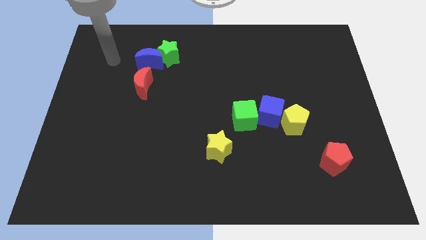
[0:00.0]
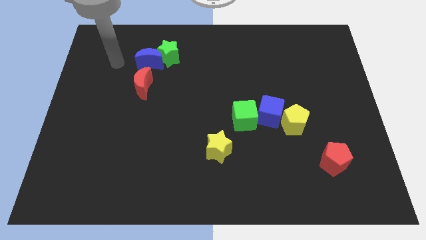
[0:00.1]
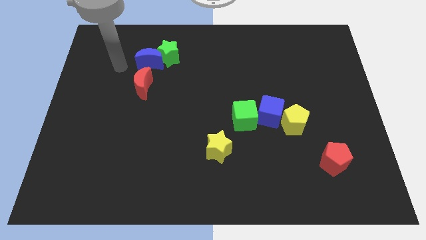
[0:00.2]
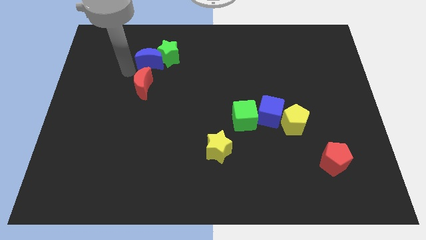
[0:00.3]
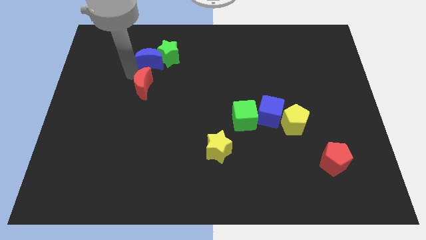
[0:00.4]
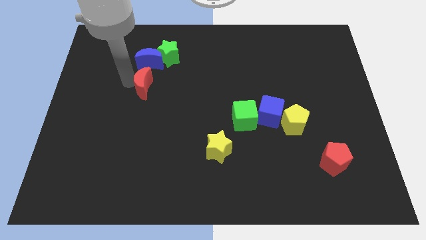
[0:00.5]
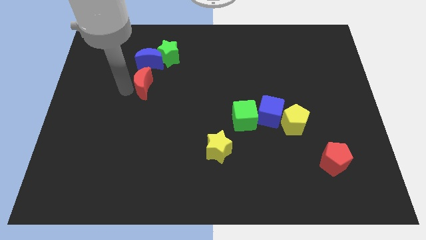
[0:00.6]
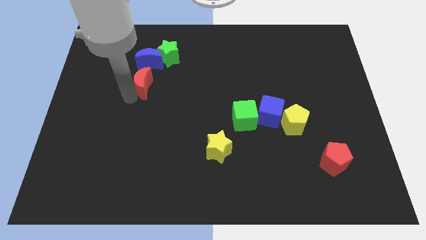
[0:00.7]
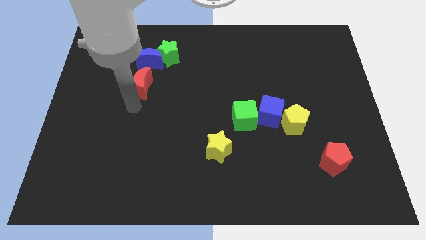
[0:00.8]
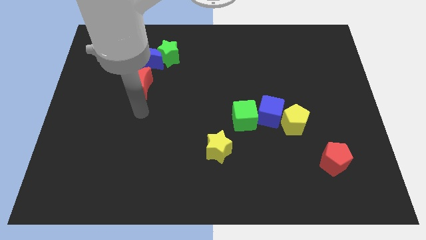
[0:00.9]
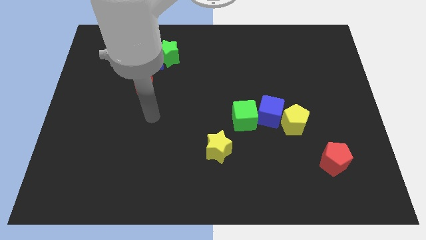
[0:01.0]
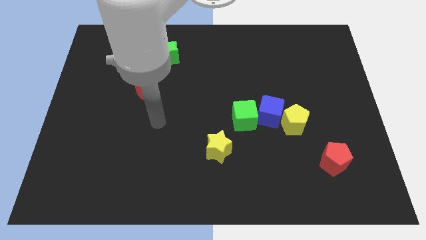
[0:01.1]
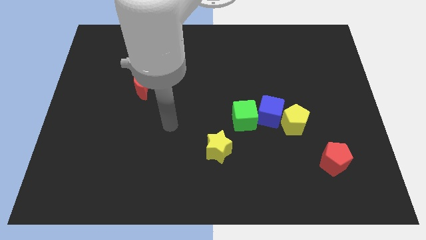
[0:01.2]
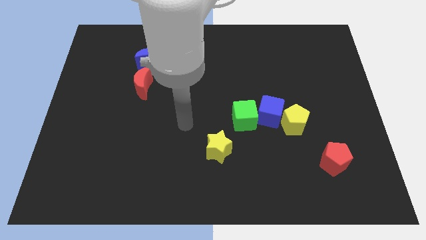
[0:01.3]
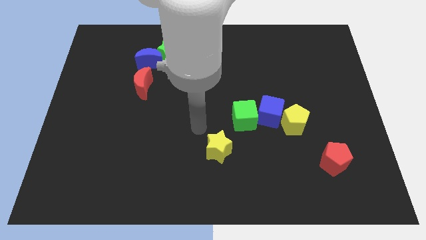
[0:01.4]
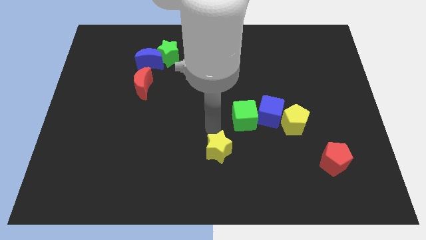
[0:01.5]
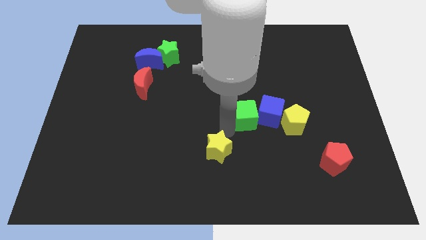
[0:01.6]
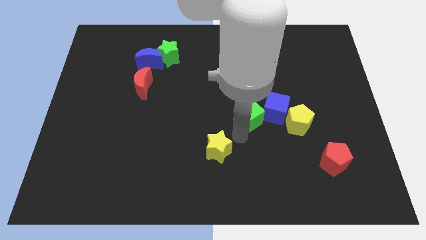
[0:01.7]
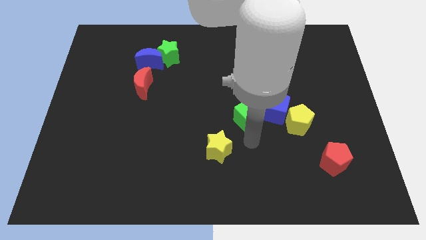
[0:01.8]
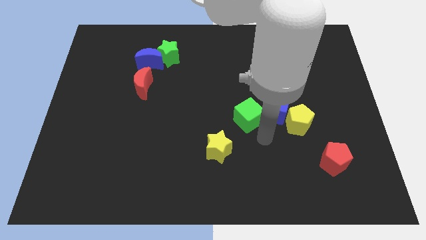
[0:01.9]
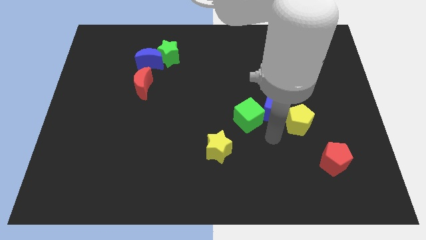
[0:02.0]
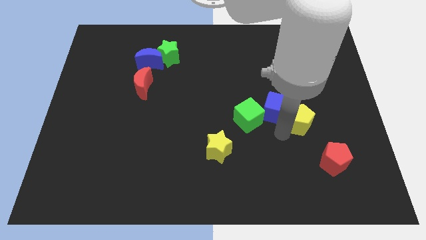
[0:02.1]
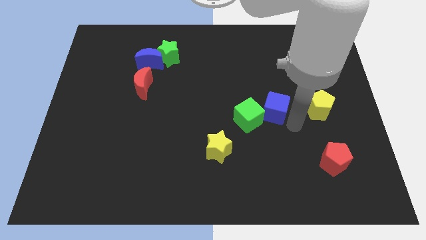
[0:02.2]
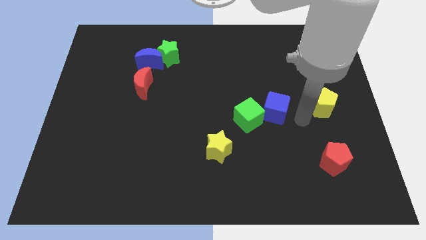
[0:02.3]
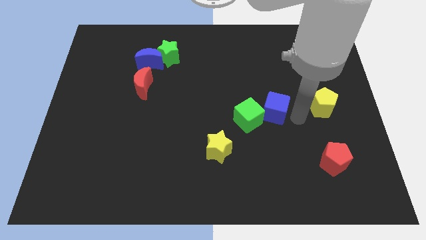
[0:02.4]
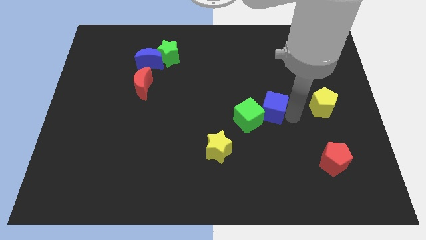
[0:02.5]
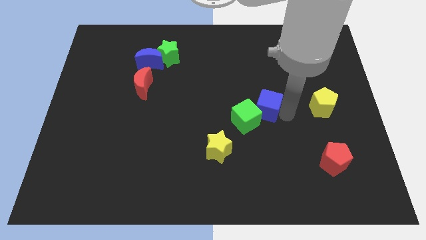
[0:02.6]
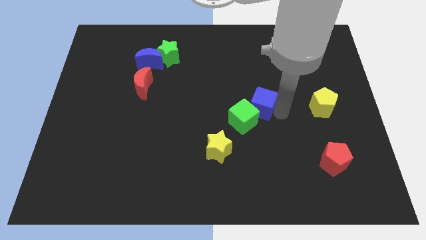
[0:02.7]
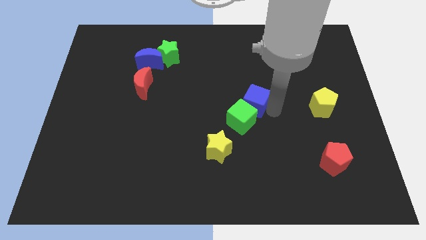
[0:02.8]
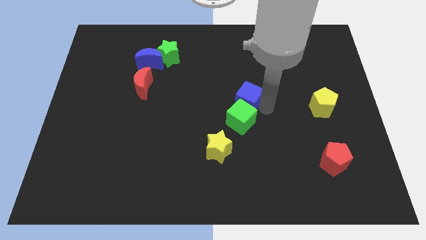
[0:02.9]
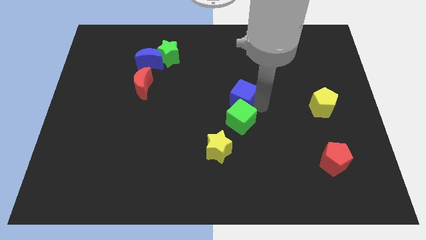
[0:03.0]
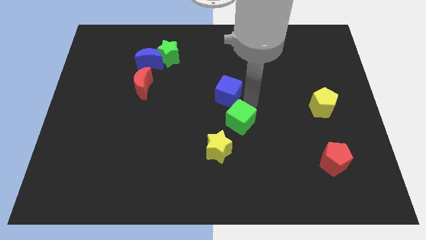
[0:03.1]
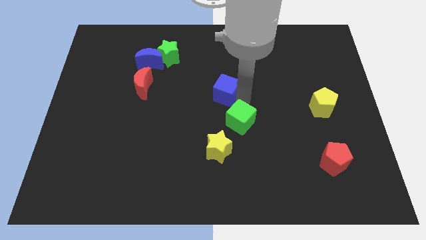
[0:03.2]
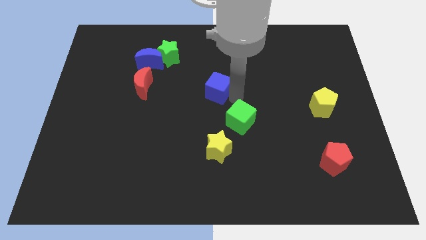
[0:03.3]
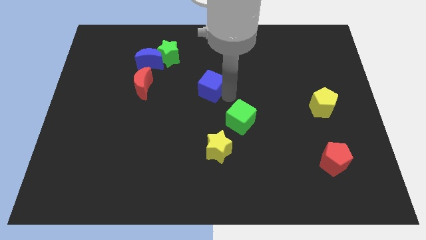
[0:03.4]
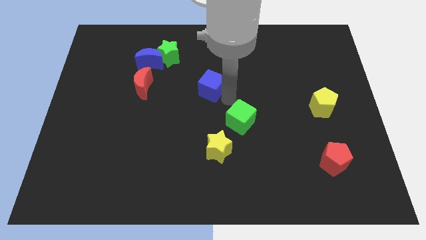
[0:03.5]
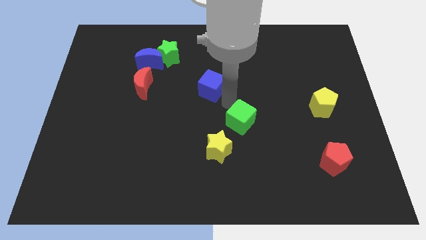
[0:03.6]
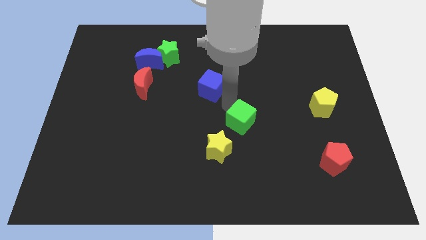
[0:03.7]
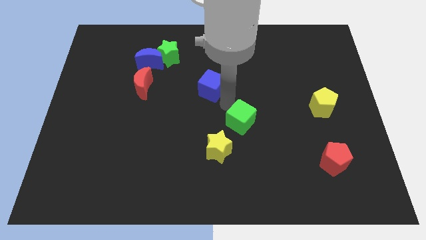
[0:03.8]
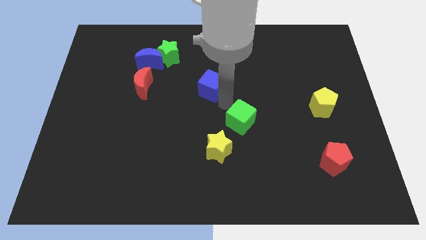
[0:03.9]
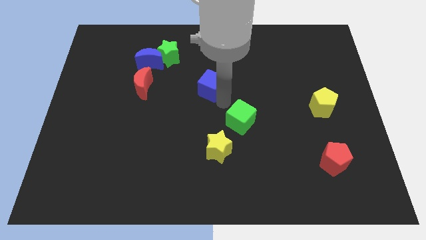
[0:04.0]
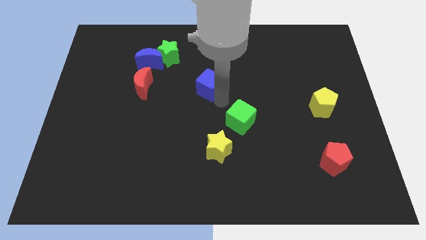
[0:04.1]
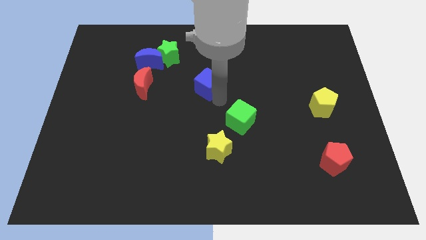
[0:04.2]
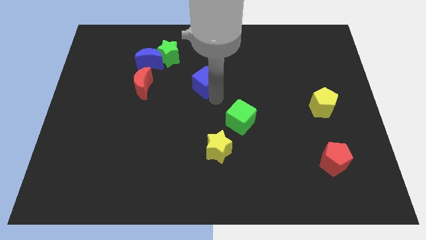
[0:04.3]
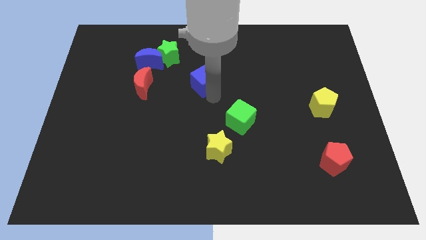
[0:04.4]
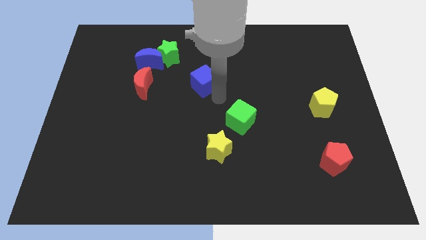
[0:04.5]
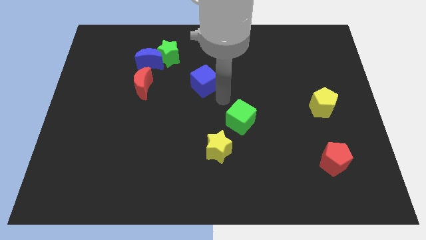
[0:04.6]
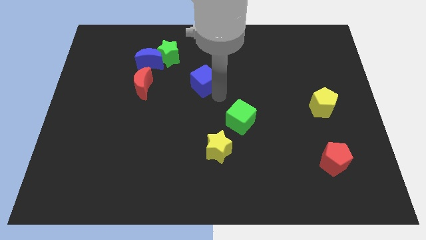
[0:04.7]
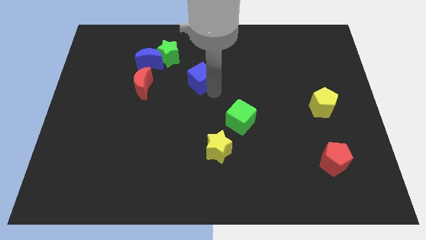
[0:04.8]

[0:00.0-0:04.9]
put the blue cube to the bottom right side of the green star

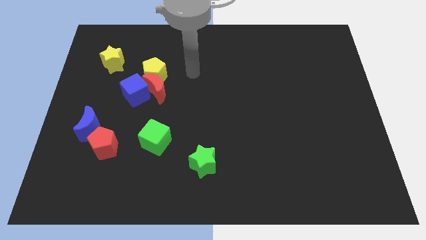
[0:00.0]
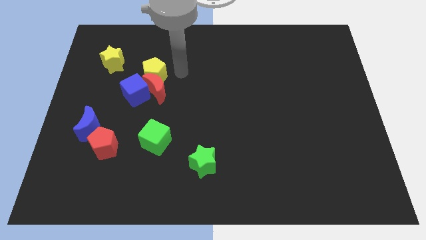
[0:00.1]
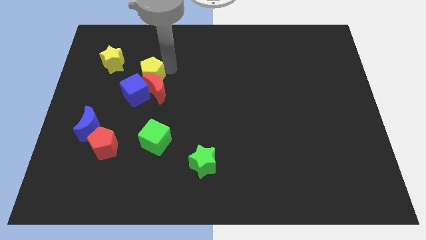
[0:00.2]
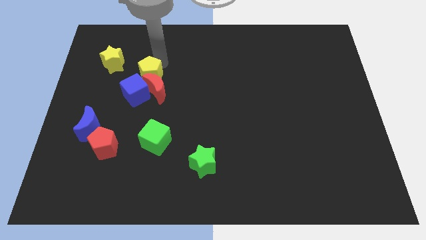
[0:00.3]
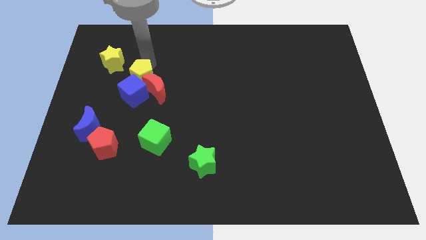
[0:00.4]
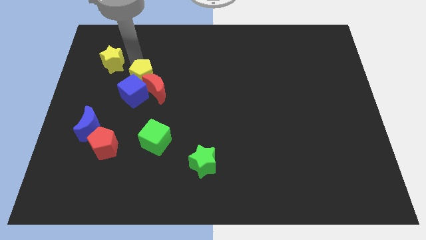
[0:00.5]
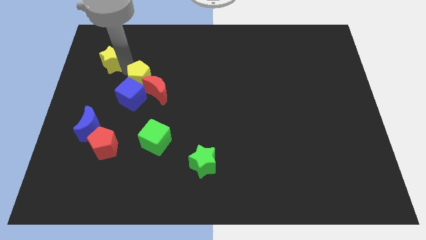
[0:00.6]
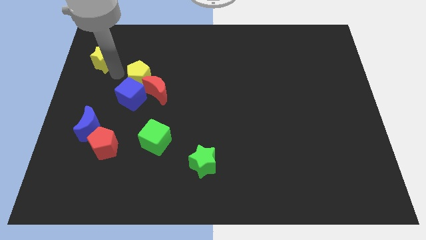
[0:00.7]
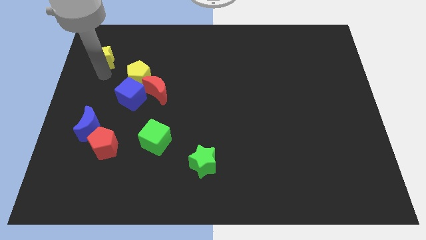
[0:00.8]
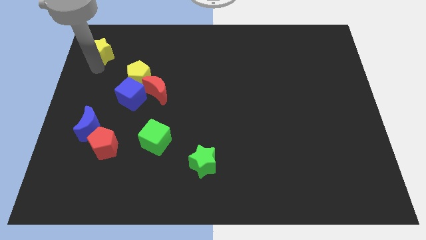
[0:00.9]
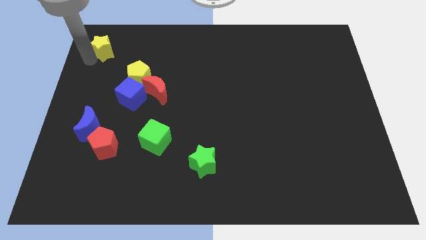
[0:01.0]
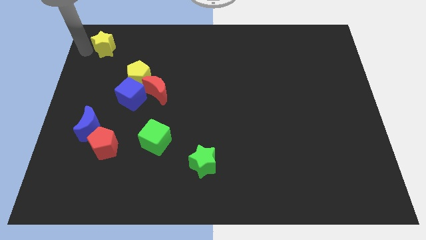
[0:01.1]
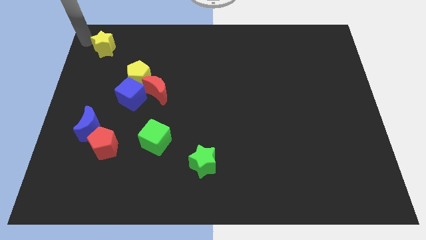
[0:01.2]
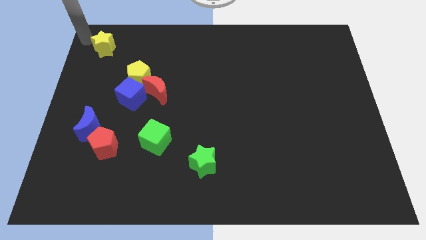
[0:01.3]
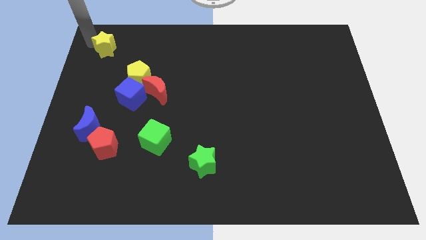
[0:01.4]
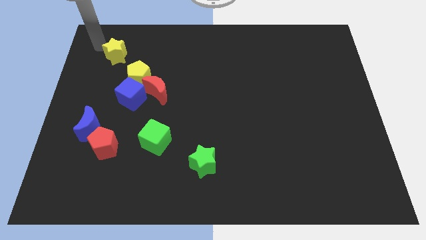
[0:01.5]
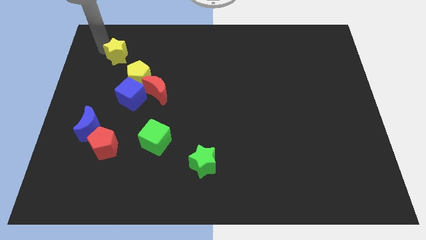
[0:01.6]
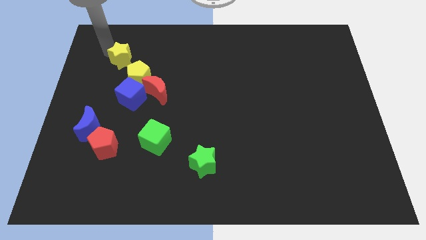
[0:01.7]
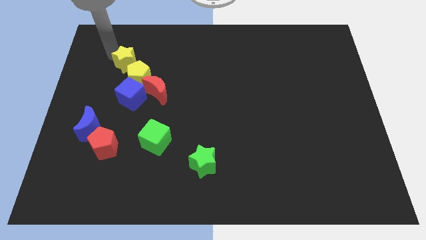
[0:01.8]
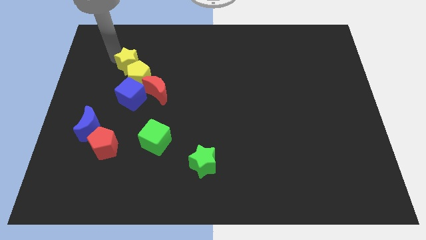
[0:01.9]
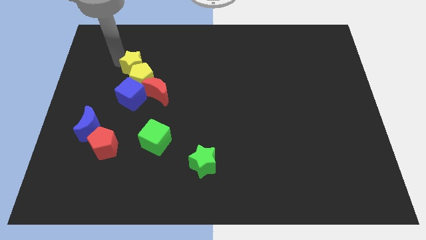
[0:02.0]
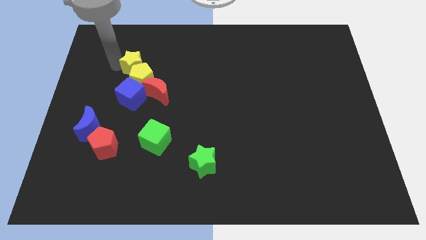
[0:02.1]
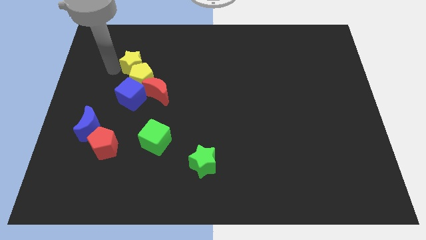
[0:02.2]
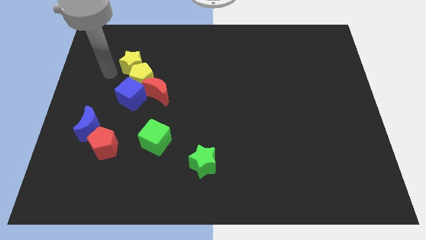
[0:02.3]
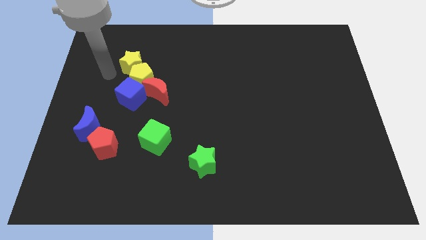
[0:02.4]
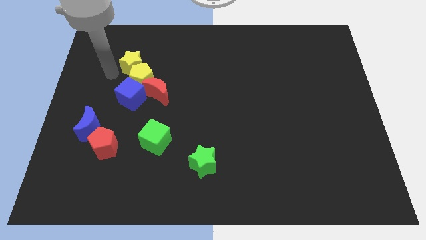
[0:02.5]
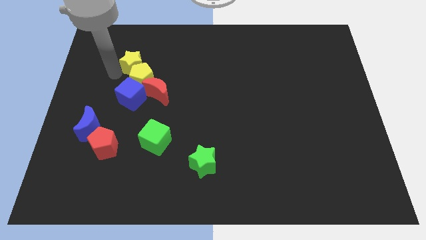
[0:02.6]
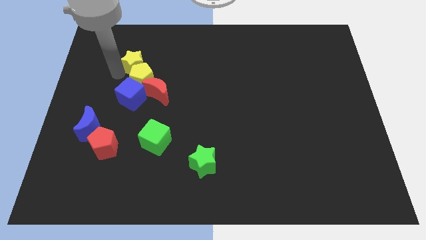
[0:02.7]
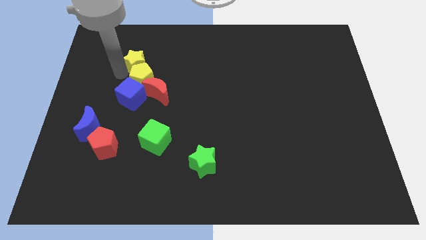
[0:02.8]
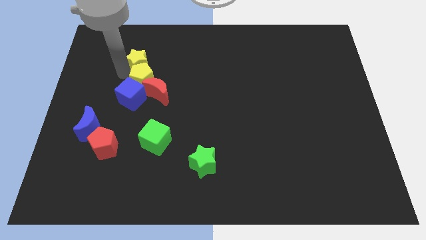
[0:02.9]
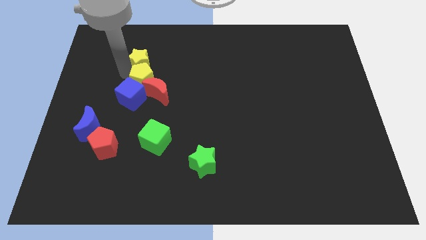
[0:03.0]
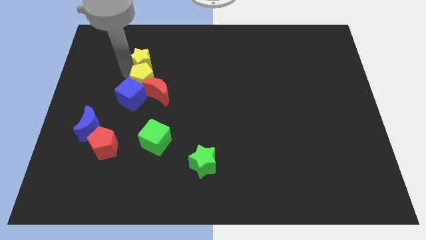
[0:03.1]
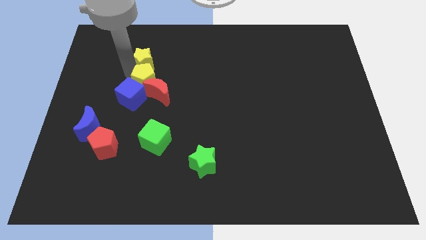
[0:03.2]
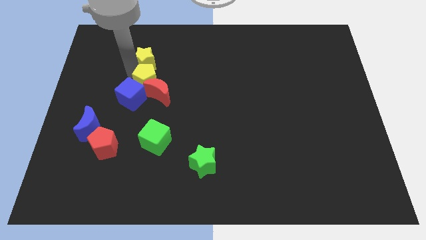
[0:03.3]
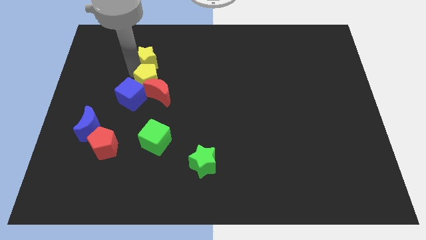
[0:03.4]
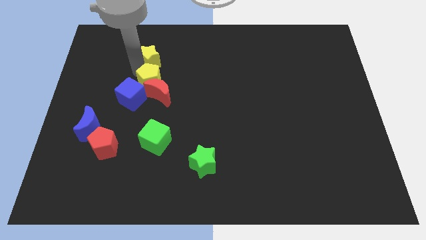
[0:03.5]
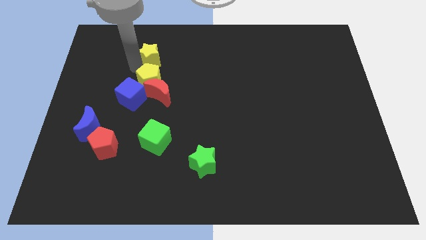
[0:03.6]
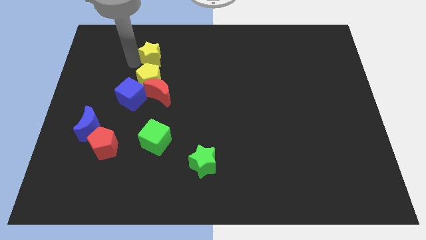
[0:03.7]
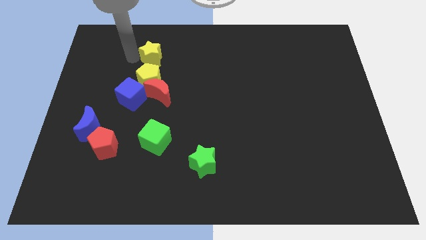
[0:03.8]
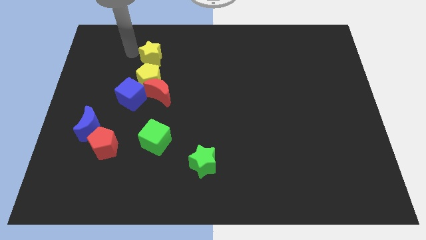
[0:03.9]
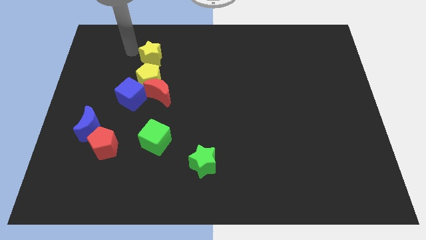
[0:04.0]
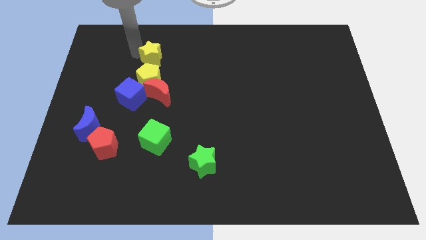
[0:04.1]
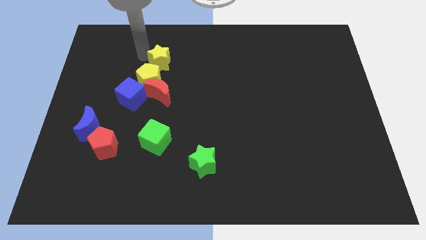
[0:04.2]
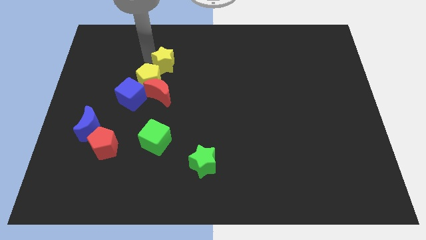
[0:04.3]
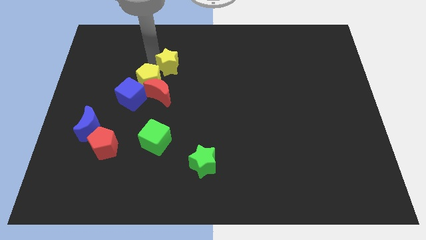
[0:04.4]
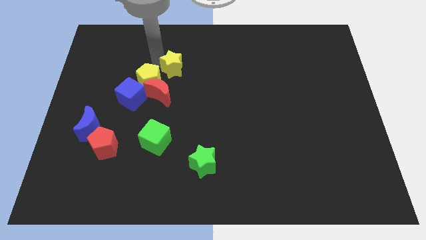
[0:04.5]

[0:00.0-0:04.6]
move the yellow star to the right of the yellow pentagon
